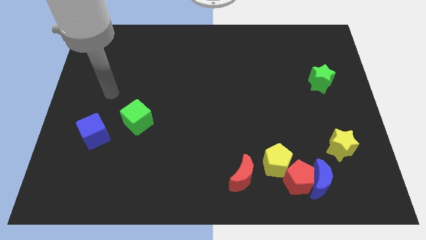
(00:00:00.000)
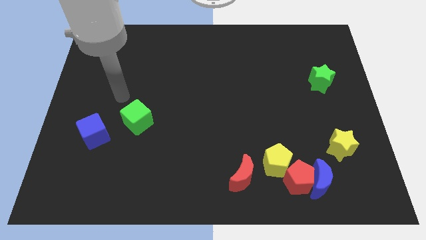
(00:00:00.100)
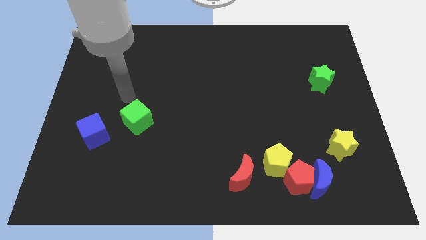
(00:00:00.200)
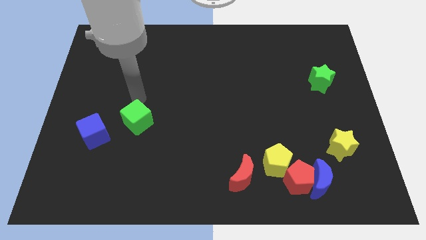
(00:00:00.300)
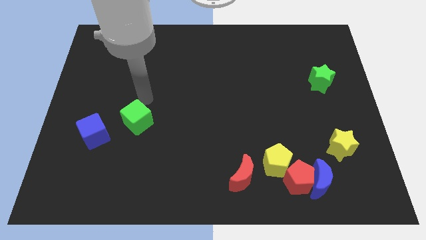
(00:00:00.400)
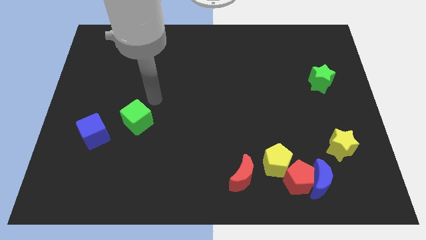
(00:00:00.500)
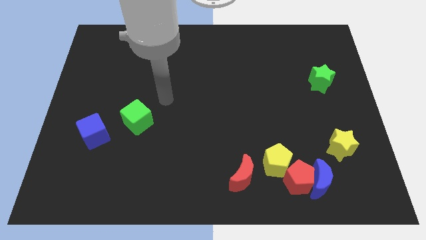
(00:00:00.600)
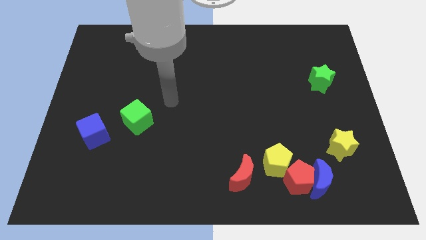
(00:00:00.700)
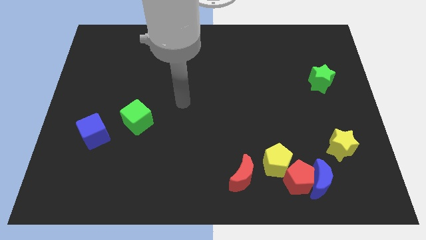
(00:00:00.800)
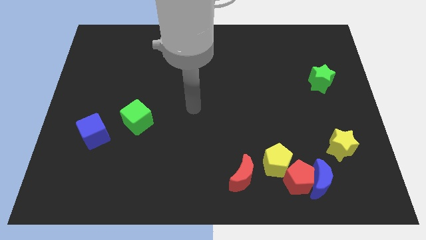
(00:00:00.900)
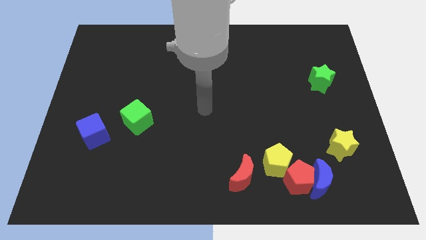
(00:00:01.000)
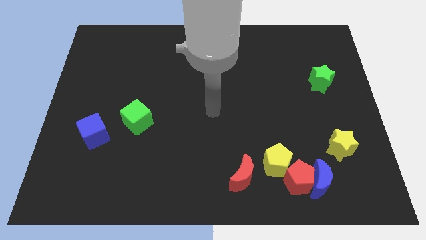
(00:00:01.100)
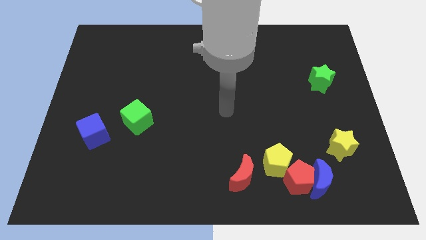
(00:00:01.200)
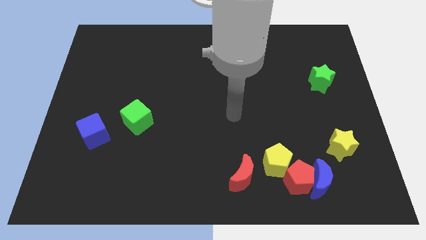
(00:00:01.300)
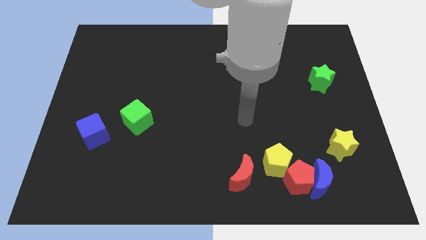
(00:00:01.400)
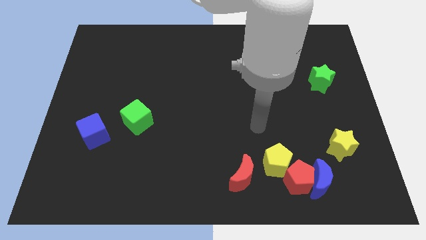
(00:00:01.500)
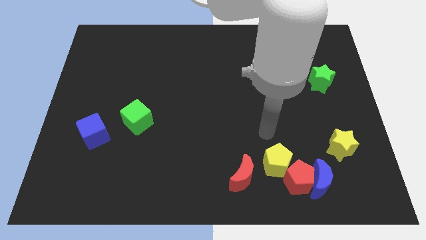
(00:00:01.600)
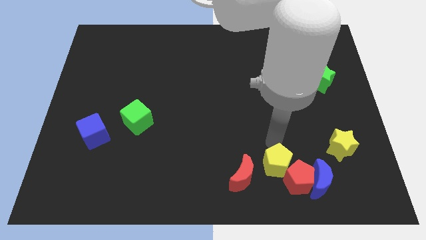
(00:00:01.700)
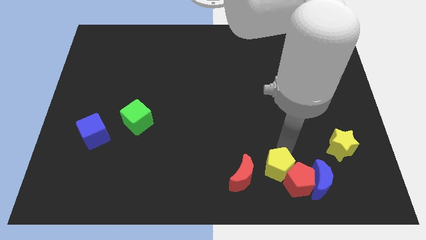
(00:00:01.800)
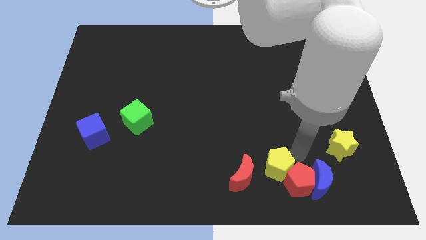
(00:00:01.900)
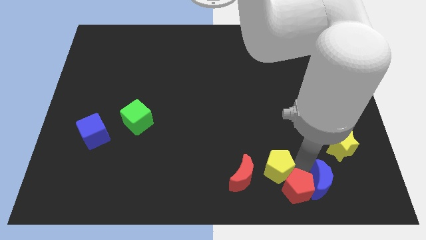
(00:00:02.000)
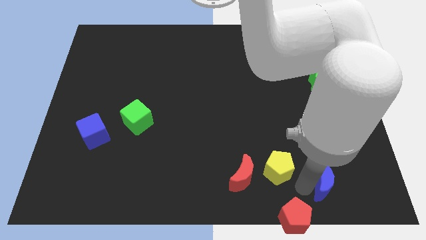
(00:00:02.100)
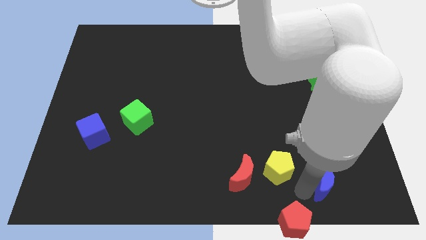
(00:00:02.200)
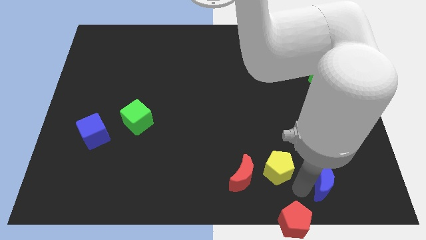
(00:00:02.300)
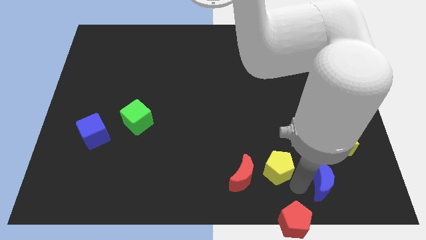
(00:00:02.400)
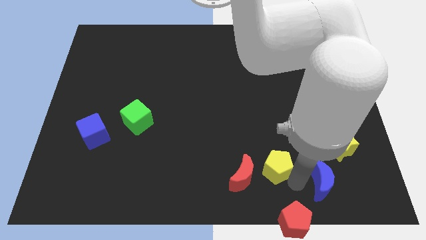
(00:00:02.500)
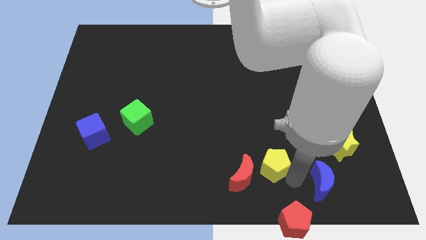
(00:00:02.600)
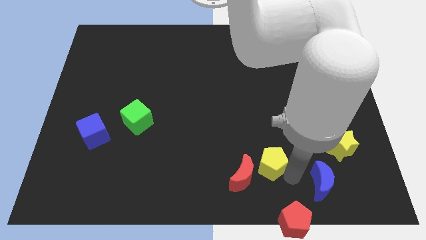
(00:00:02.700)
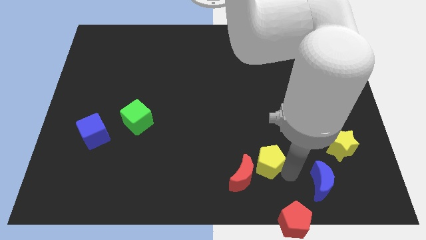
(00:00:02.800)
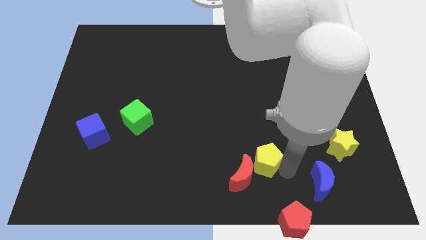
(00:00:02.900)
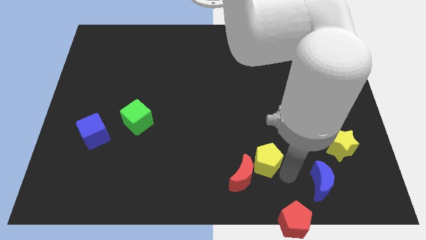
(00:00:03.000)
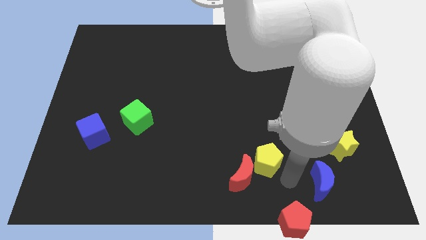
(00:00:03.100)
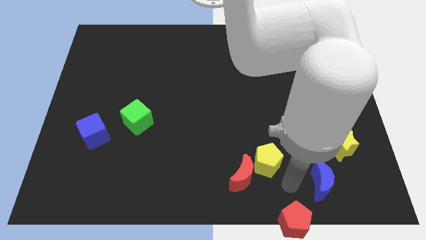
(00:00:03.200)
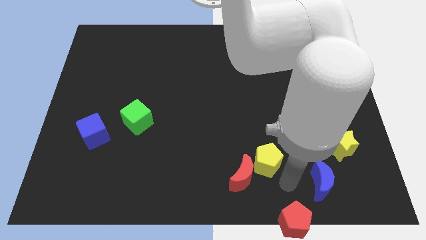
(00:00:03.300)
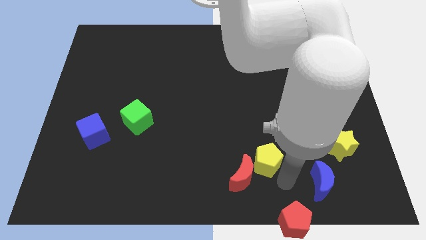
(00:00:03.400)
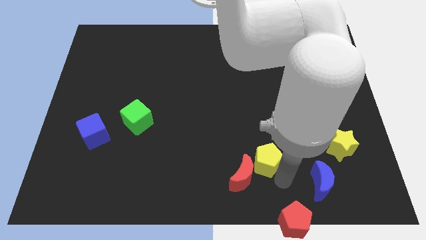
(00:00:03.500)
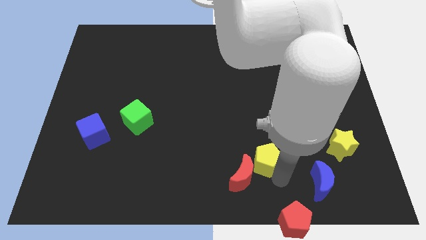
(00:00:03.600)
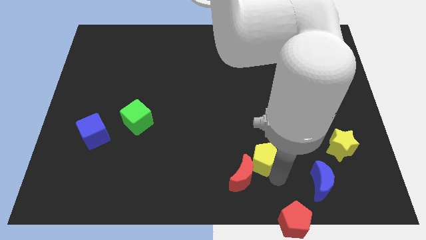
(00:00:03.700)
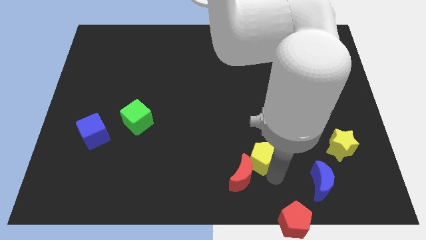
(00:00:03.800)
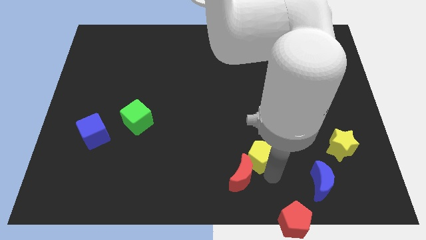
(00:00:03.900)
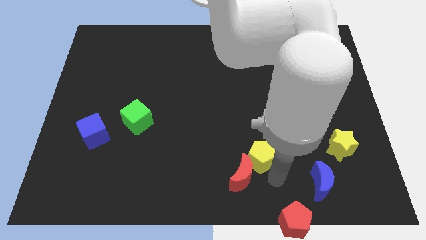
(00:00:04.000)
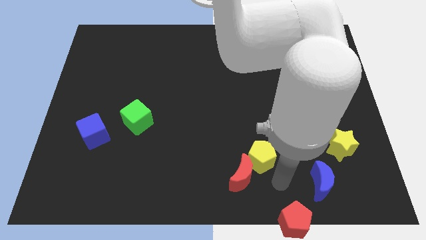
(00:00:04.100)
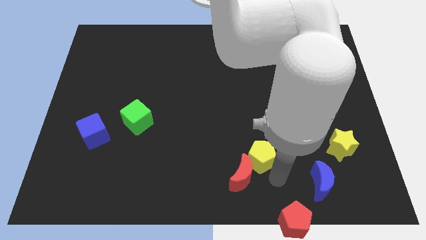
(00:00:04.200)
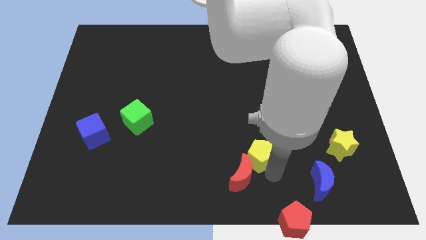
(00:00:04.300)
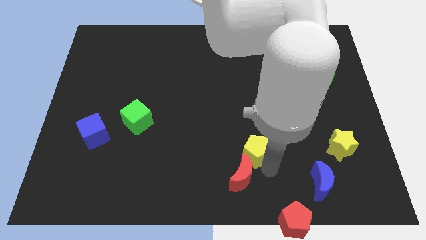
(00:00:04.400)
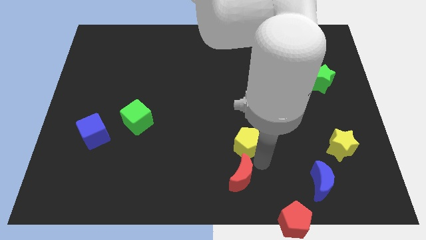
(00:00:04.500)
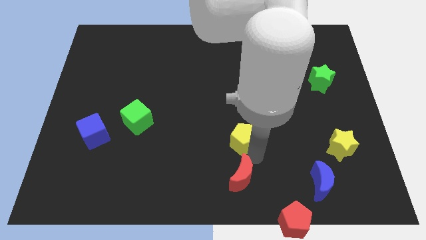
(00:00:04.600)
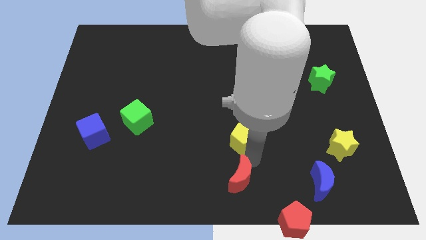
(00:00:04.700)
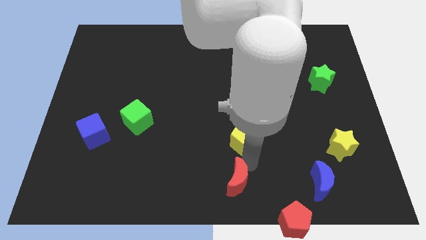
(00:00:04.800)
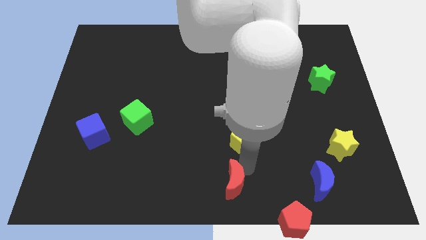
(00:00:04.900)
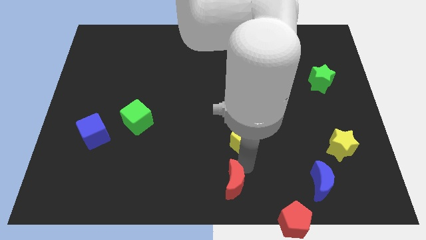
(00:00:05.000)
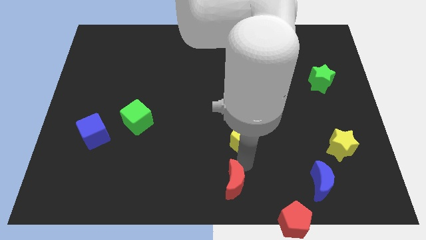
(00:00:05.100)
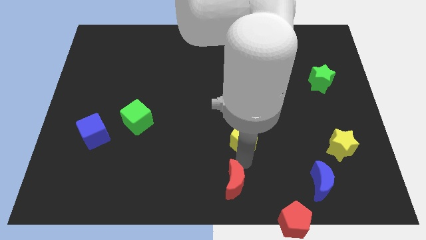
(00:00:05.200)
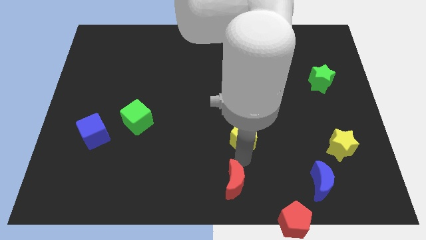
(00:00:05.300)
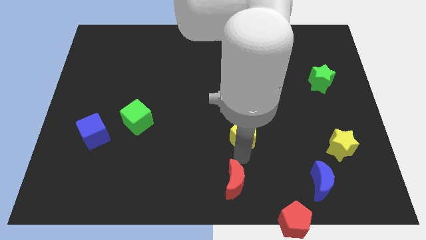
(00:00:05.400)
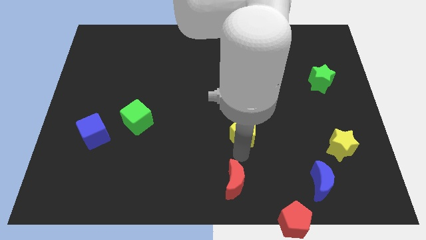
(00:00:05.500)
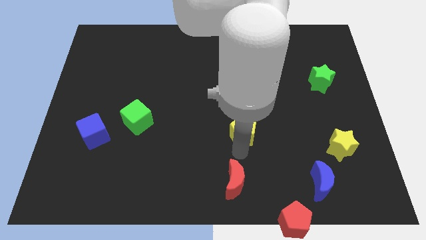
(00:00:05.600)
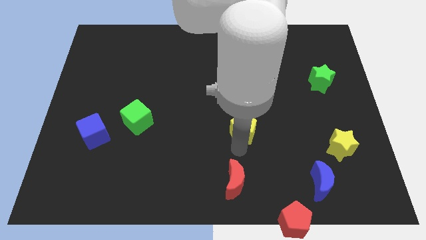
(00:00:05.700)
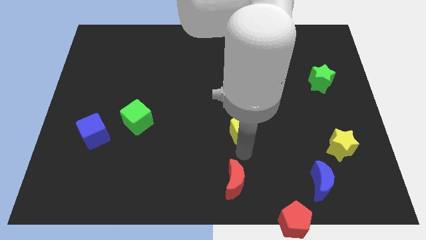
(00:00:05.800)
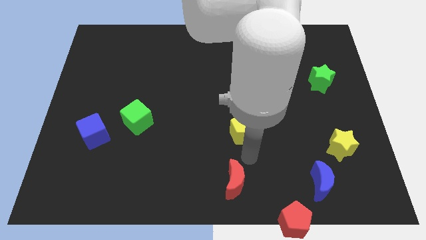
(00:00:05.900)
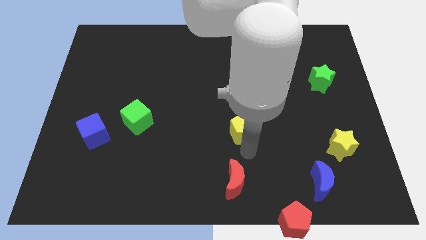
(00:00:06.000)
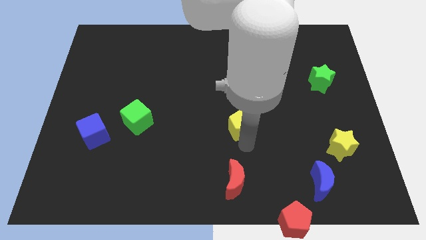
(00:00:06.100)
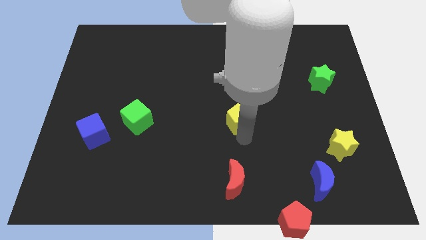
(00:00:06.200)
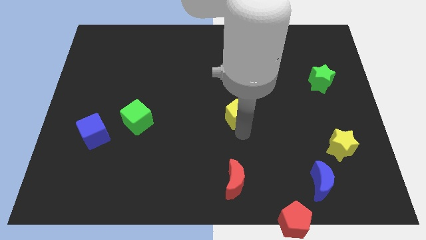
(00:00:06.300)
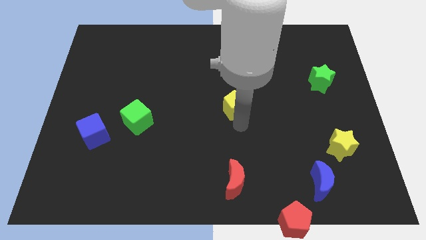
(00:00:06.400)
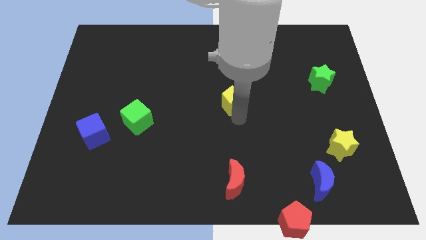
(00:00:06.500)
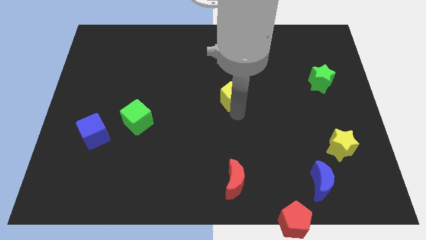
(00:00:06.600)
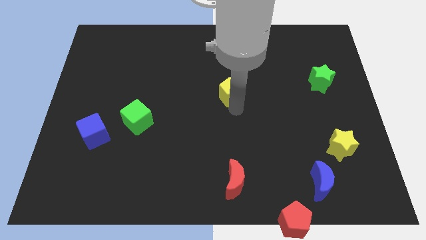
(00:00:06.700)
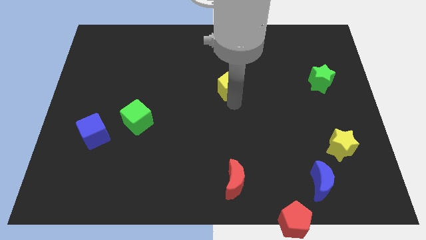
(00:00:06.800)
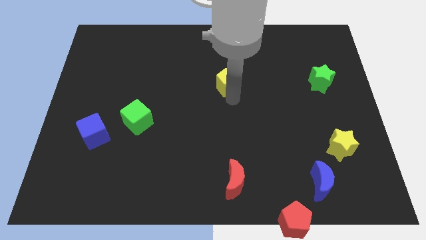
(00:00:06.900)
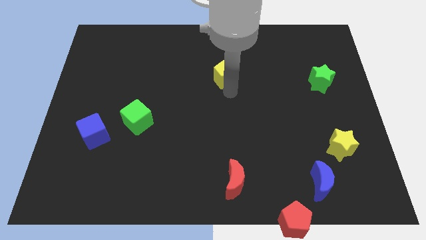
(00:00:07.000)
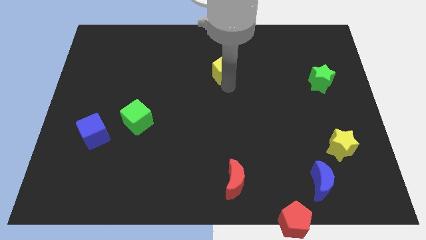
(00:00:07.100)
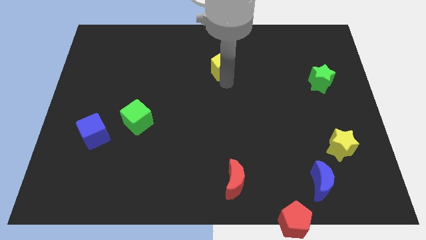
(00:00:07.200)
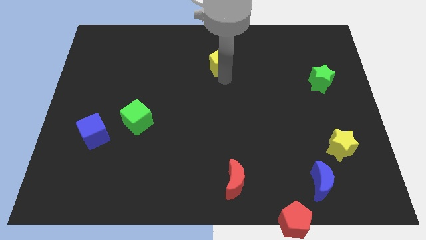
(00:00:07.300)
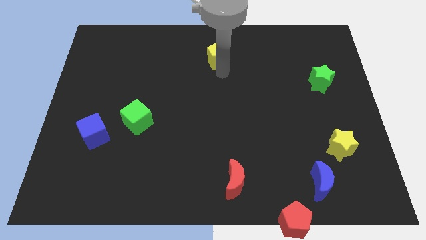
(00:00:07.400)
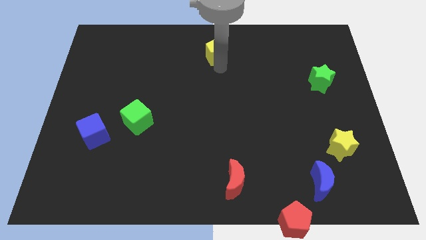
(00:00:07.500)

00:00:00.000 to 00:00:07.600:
put the yellow pentagon to the top

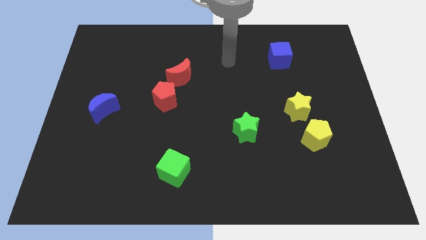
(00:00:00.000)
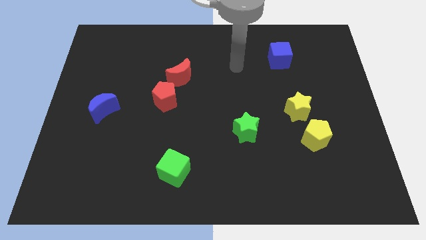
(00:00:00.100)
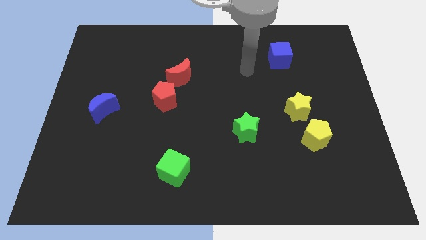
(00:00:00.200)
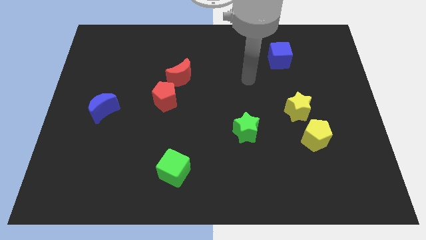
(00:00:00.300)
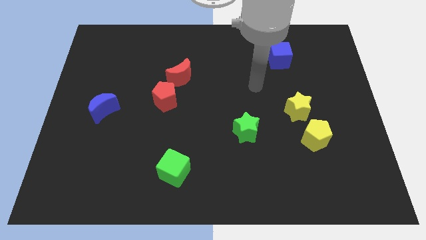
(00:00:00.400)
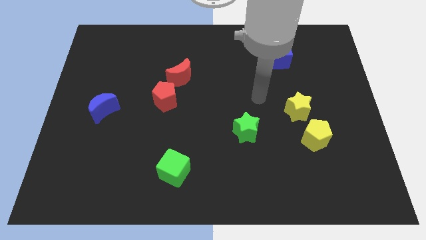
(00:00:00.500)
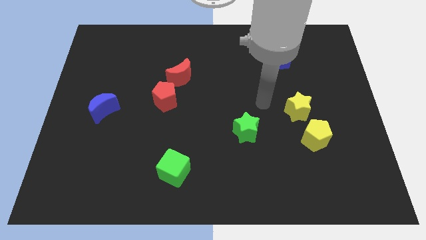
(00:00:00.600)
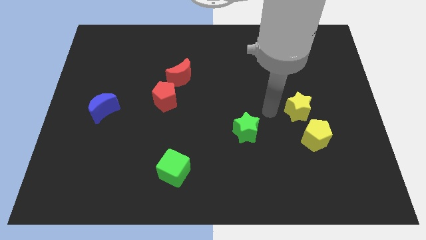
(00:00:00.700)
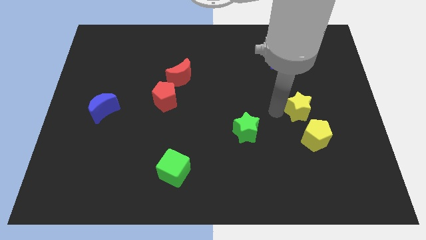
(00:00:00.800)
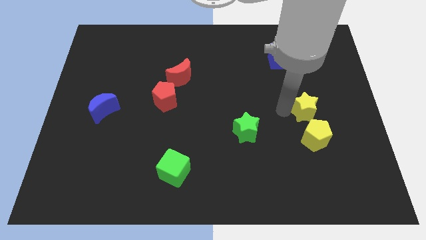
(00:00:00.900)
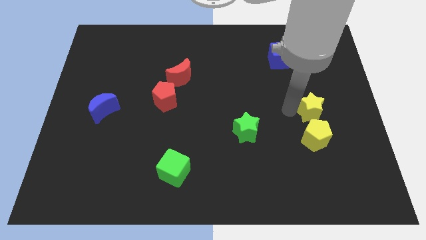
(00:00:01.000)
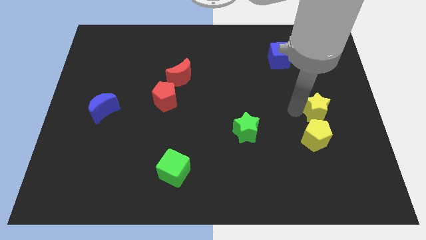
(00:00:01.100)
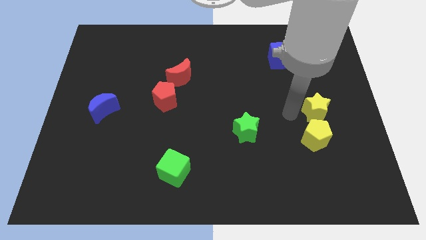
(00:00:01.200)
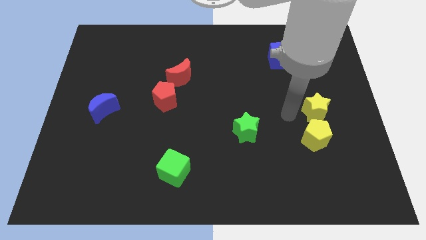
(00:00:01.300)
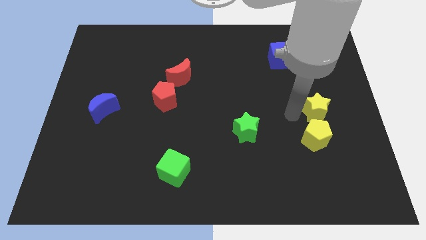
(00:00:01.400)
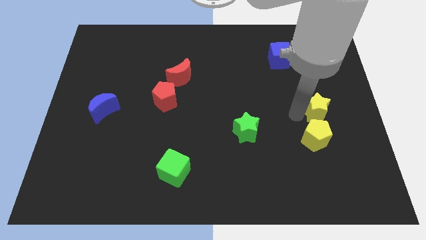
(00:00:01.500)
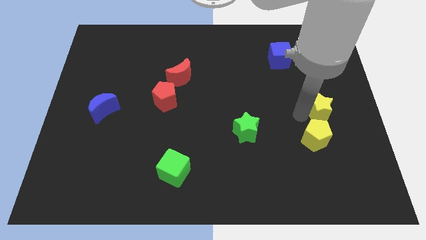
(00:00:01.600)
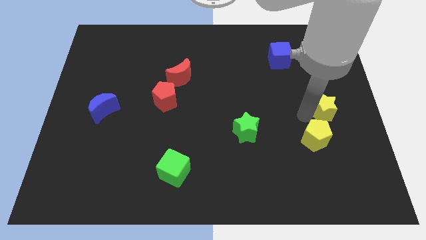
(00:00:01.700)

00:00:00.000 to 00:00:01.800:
slide the yellow star to the center right
